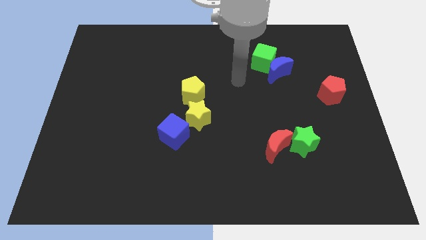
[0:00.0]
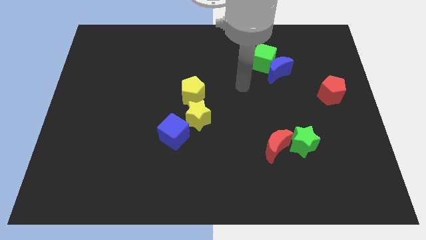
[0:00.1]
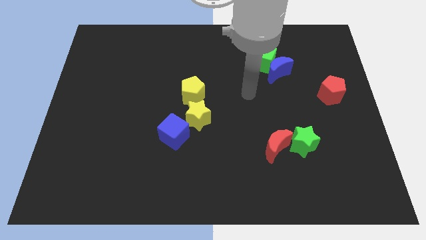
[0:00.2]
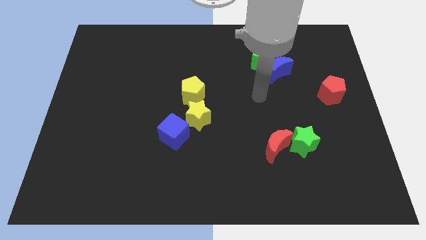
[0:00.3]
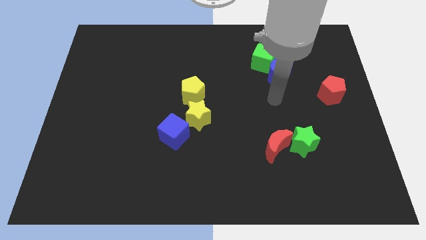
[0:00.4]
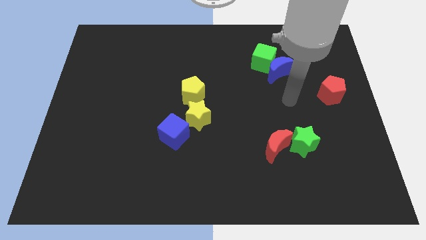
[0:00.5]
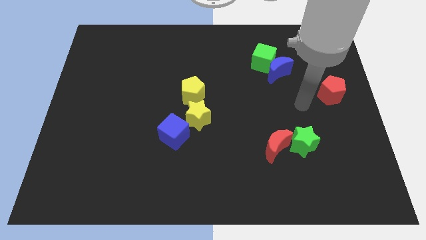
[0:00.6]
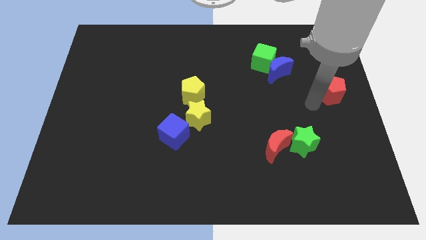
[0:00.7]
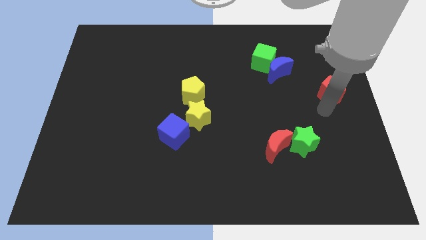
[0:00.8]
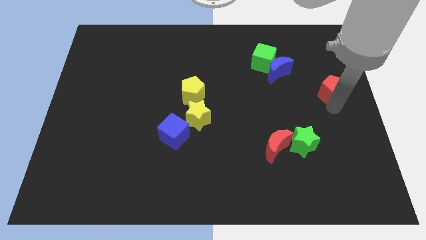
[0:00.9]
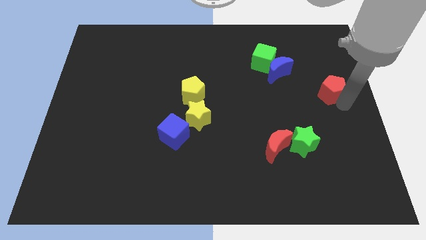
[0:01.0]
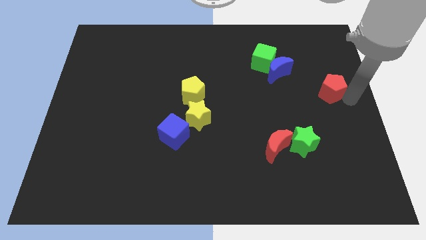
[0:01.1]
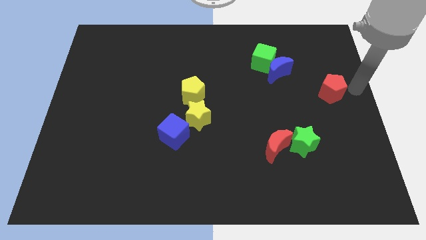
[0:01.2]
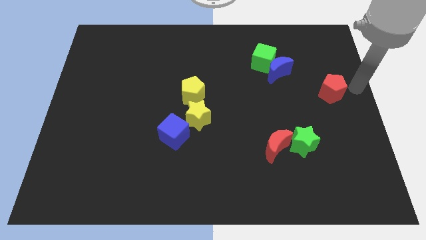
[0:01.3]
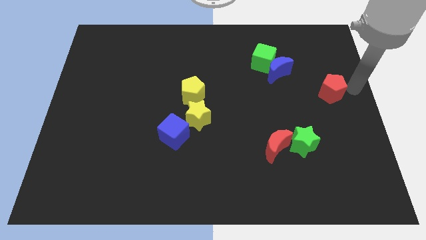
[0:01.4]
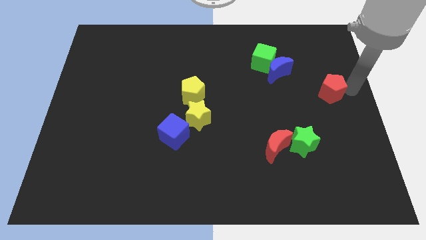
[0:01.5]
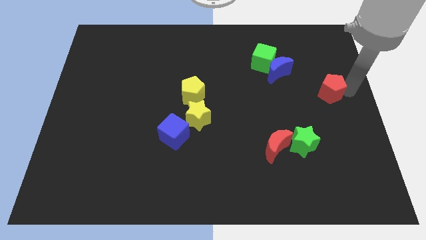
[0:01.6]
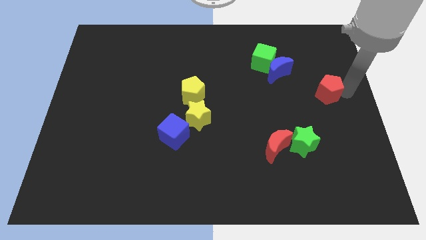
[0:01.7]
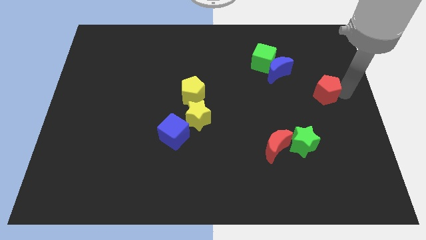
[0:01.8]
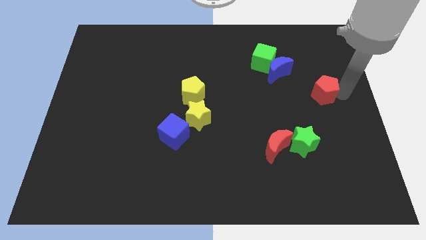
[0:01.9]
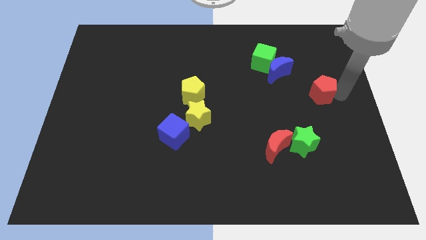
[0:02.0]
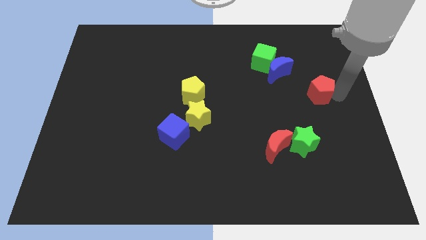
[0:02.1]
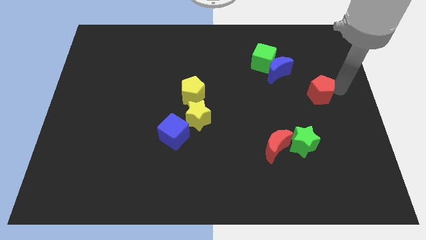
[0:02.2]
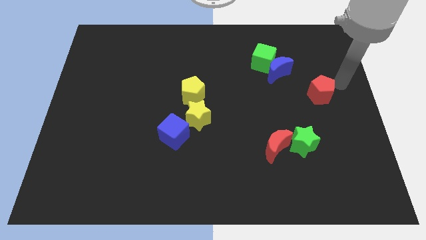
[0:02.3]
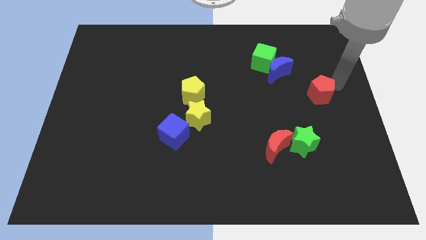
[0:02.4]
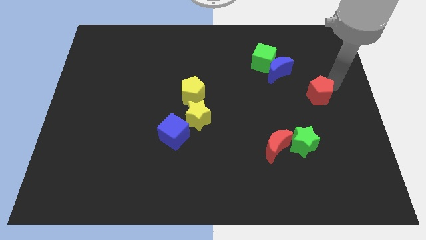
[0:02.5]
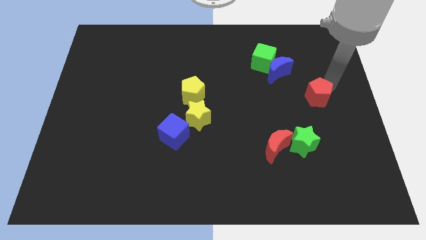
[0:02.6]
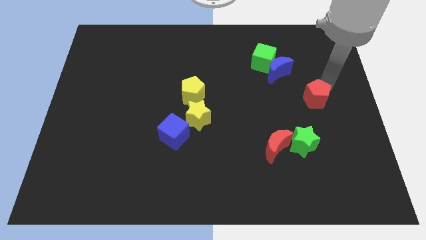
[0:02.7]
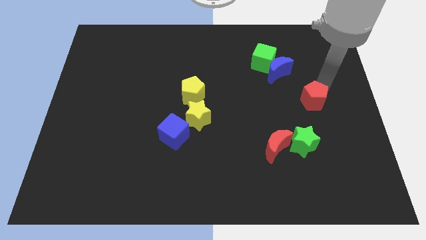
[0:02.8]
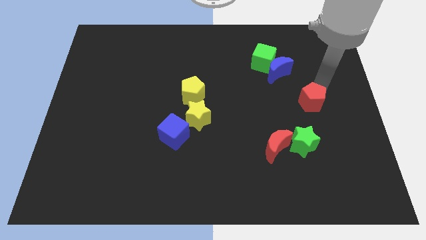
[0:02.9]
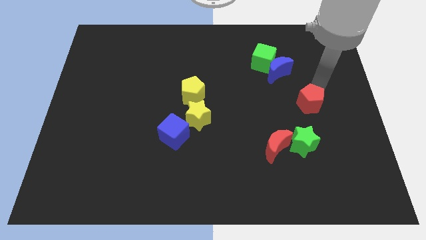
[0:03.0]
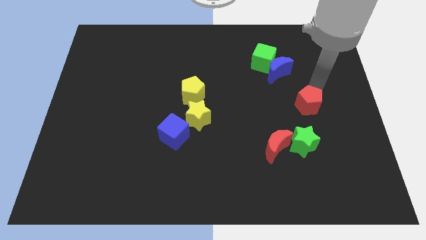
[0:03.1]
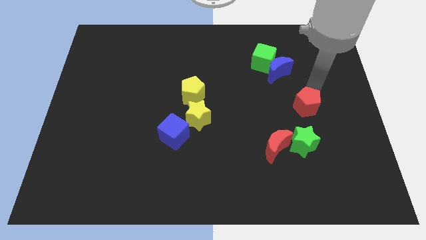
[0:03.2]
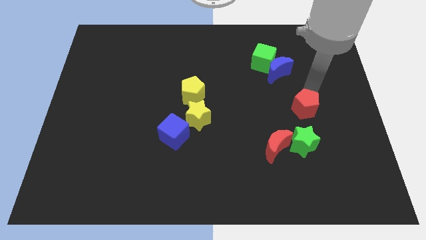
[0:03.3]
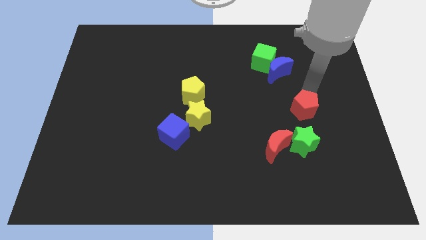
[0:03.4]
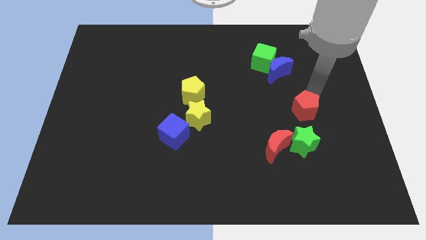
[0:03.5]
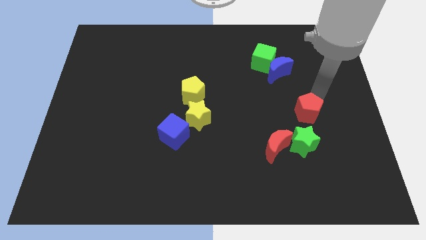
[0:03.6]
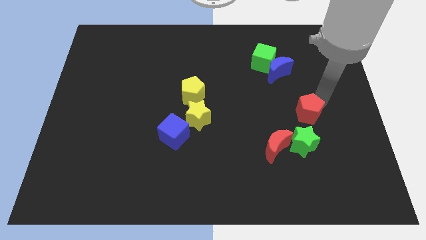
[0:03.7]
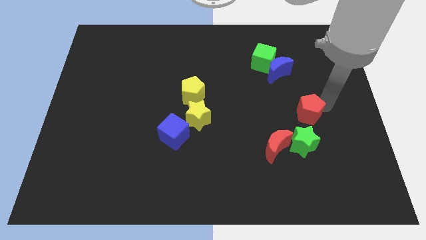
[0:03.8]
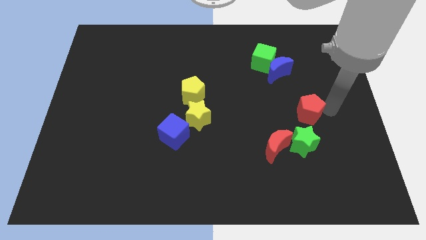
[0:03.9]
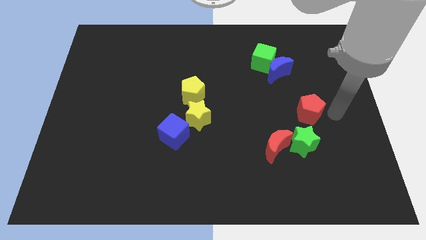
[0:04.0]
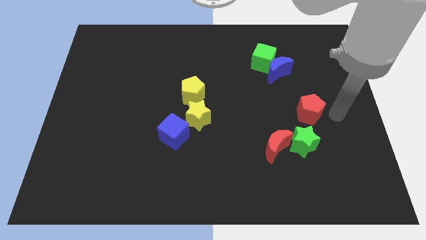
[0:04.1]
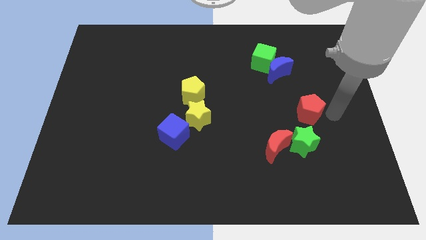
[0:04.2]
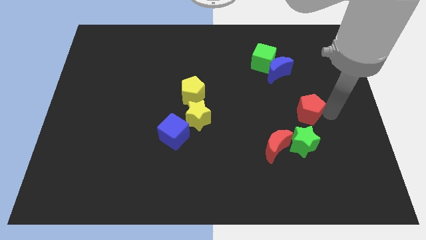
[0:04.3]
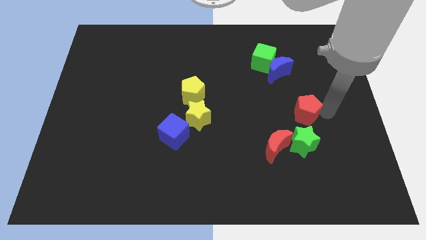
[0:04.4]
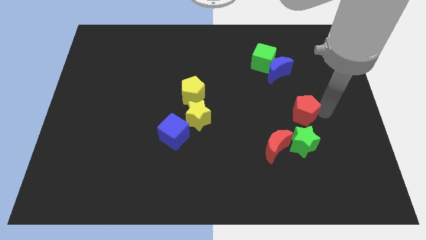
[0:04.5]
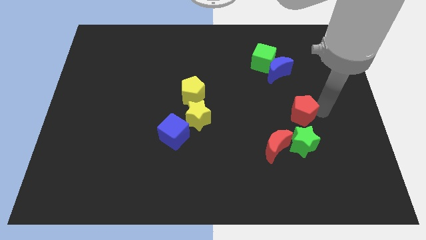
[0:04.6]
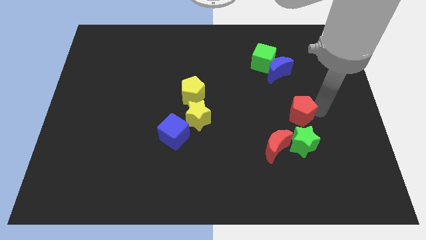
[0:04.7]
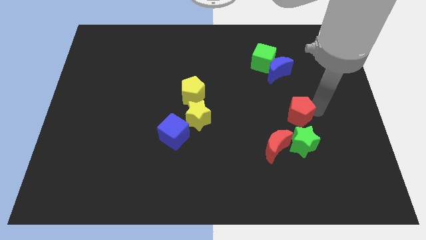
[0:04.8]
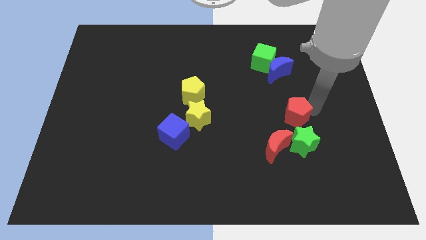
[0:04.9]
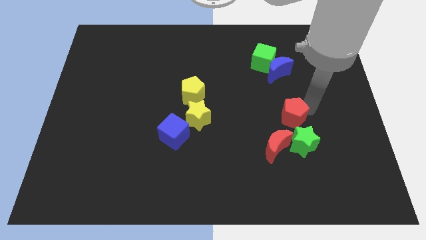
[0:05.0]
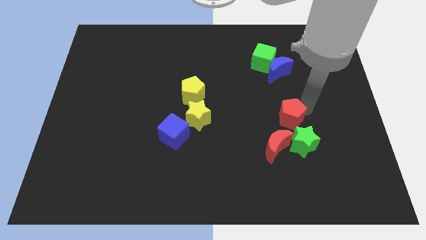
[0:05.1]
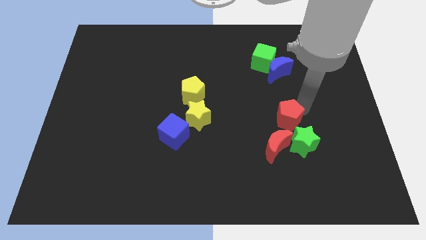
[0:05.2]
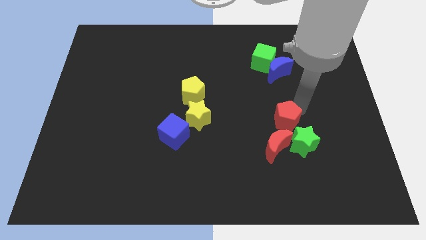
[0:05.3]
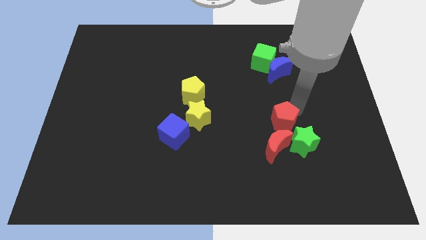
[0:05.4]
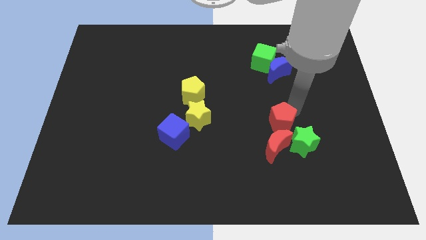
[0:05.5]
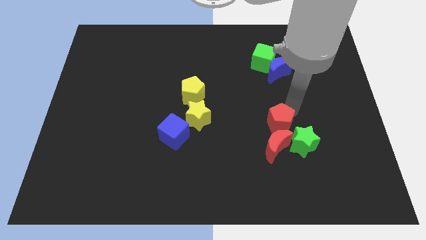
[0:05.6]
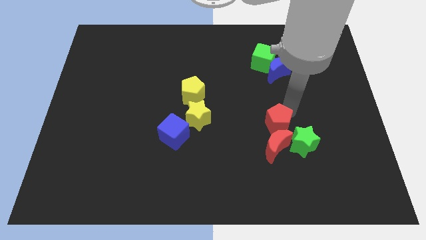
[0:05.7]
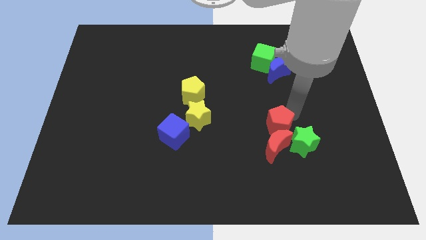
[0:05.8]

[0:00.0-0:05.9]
push the red pentagon diagonally up and to the left of the red moon

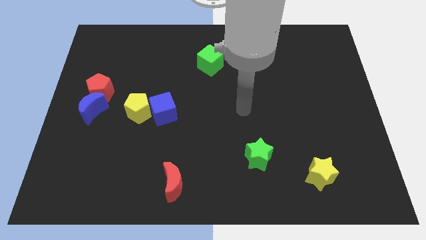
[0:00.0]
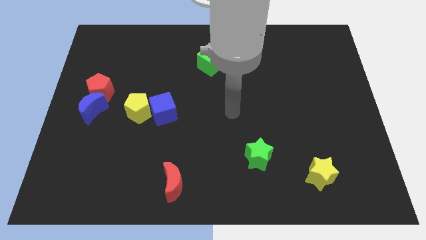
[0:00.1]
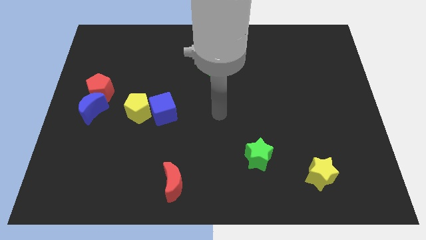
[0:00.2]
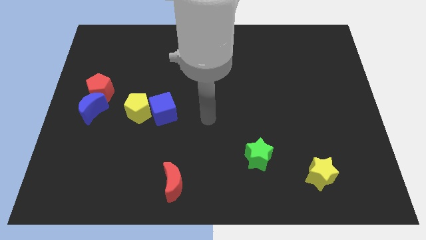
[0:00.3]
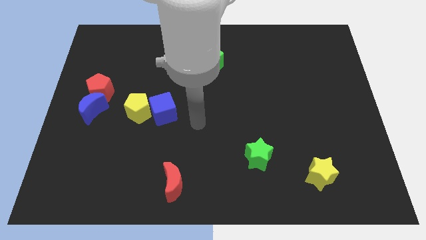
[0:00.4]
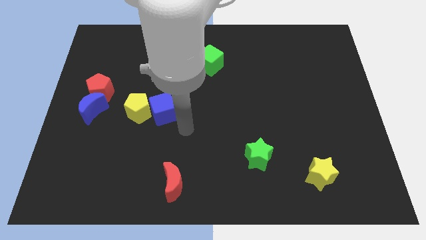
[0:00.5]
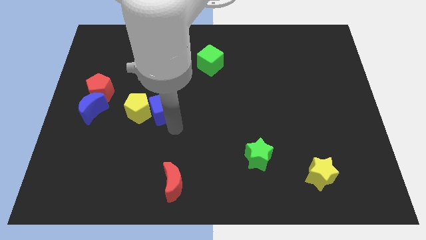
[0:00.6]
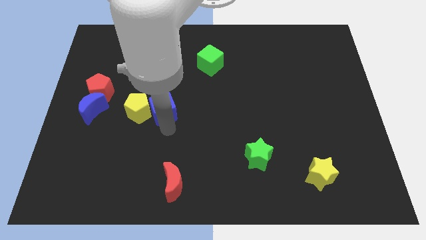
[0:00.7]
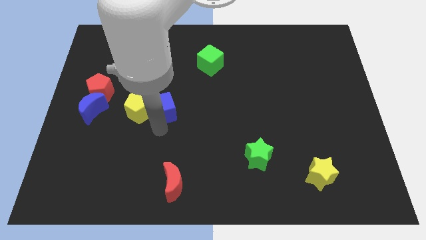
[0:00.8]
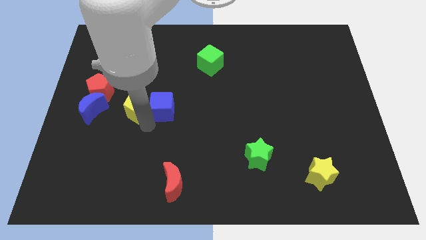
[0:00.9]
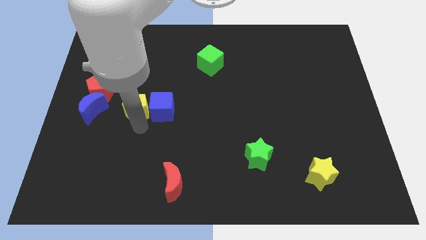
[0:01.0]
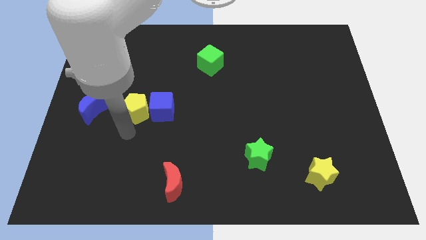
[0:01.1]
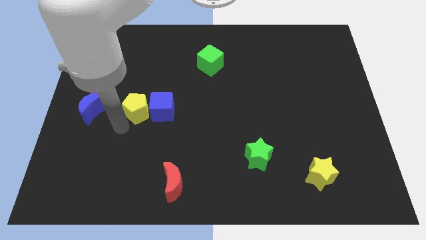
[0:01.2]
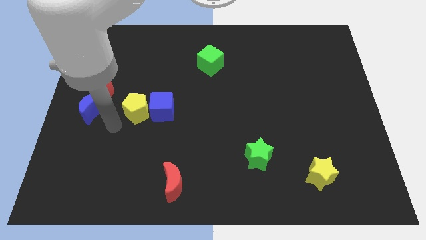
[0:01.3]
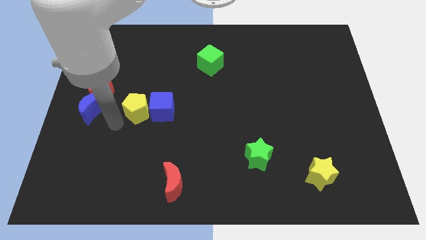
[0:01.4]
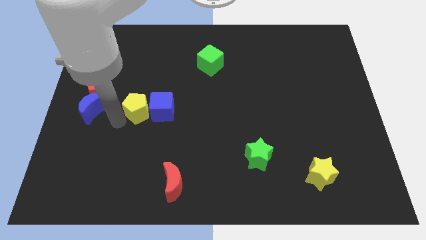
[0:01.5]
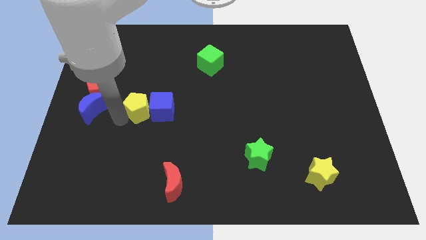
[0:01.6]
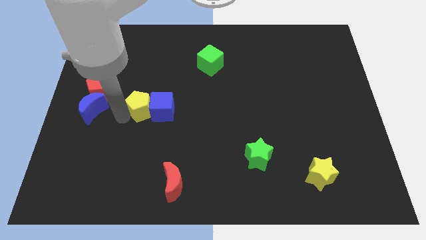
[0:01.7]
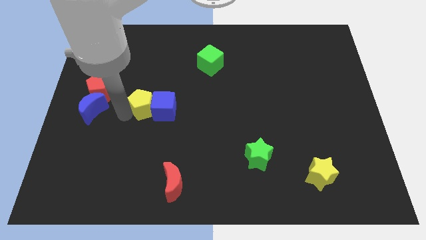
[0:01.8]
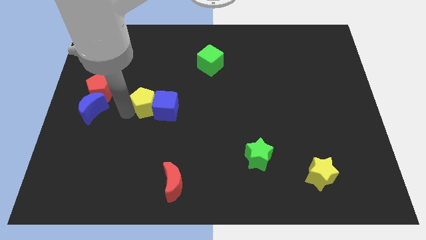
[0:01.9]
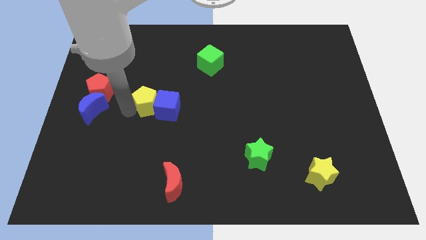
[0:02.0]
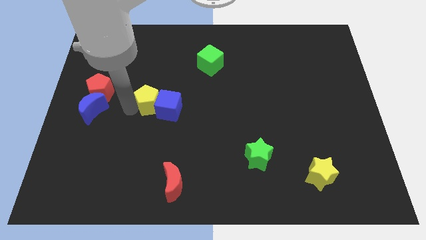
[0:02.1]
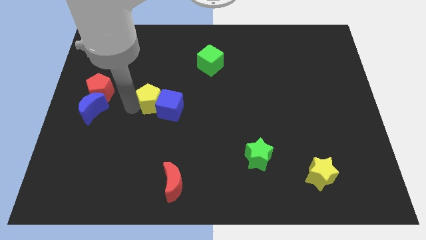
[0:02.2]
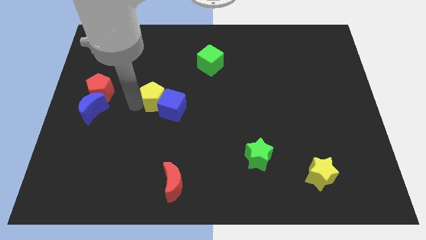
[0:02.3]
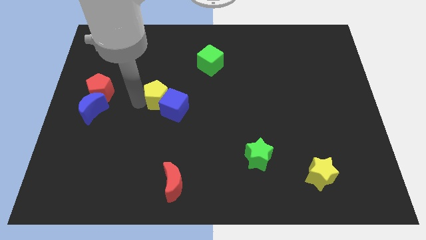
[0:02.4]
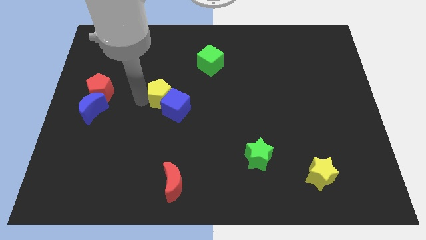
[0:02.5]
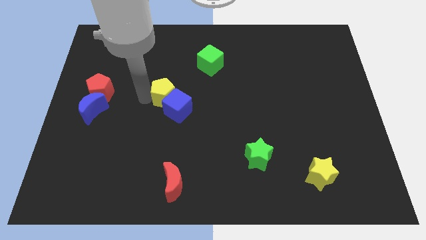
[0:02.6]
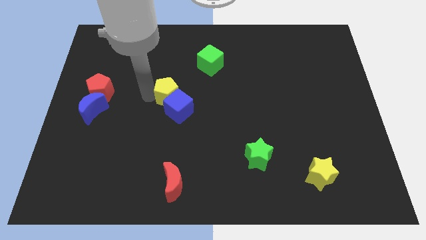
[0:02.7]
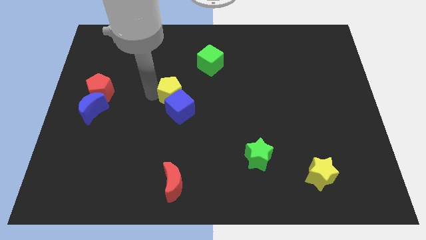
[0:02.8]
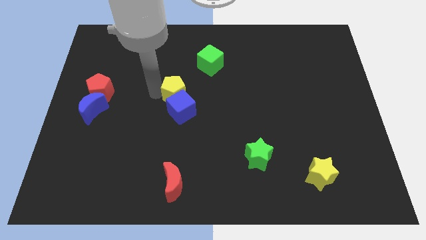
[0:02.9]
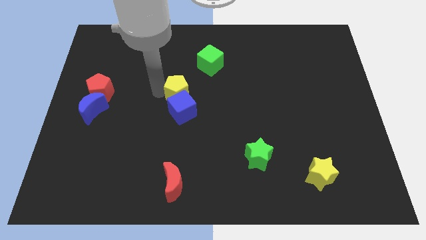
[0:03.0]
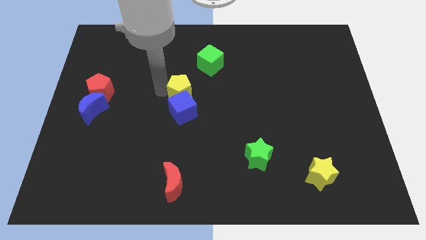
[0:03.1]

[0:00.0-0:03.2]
slide the yellow pentagon to the top right of the blue cube
